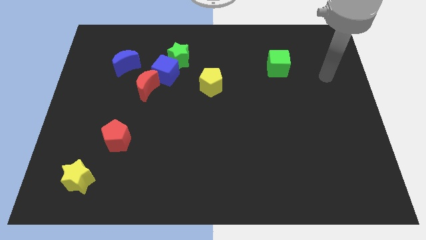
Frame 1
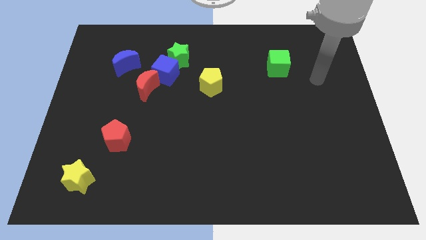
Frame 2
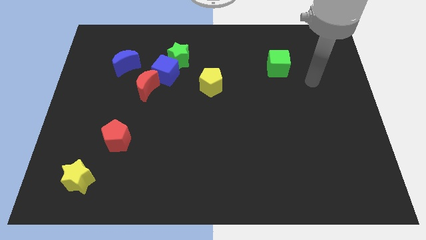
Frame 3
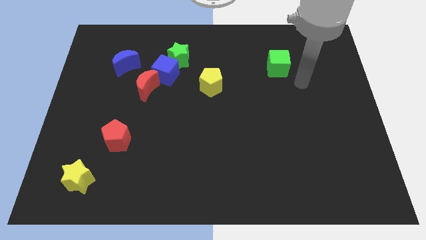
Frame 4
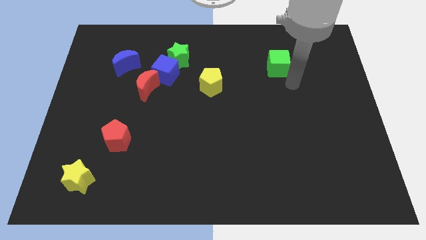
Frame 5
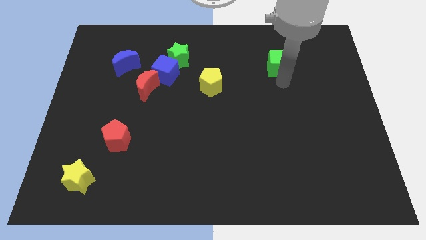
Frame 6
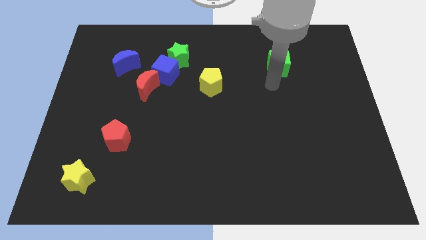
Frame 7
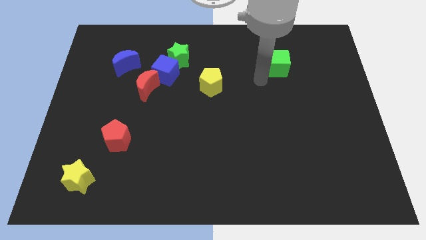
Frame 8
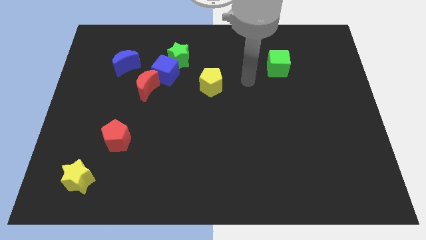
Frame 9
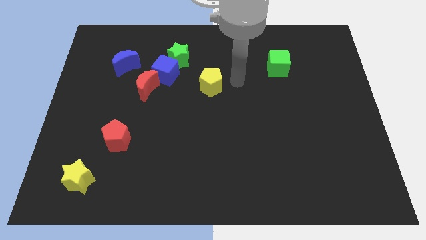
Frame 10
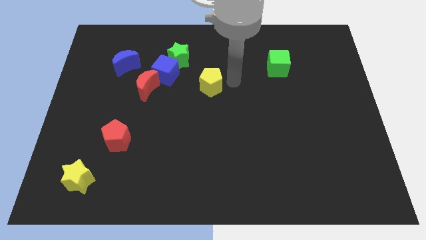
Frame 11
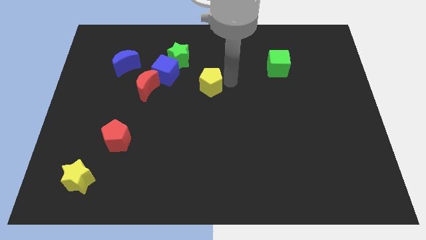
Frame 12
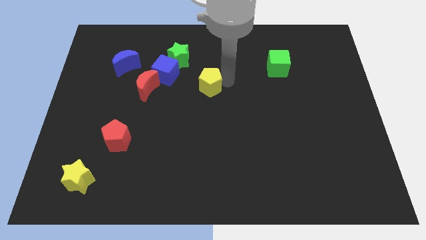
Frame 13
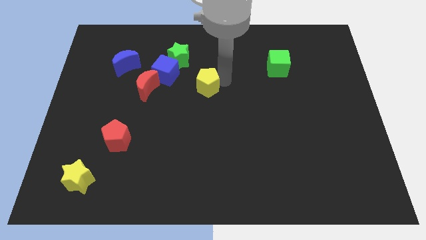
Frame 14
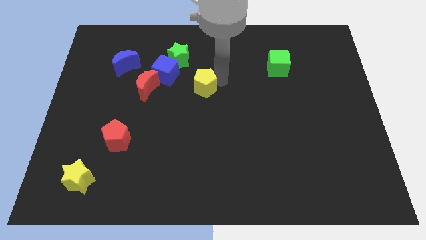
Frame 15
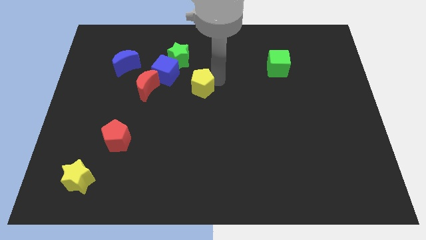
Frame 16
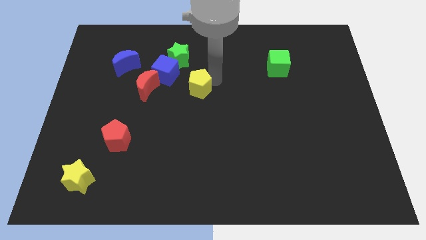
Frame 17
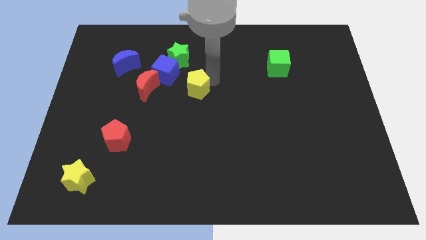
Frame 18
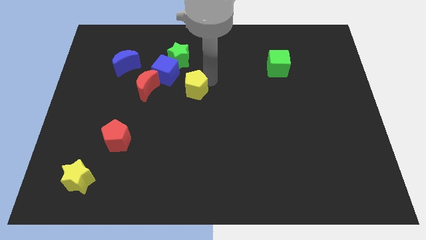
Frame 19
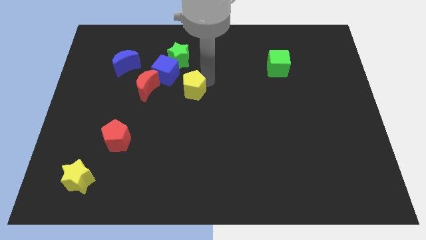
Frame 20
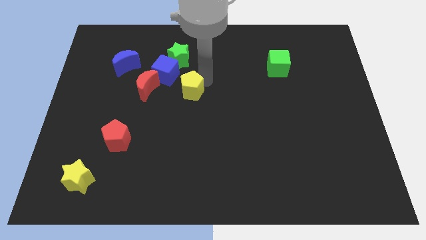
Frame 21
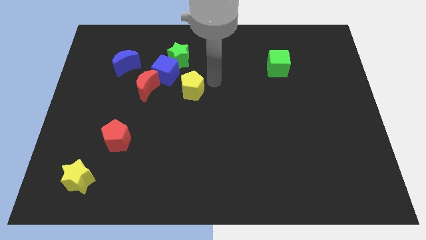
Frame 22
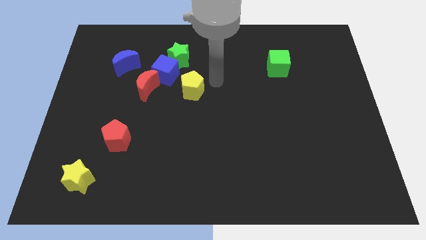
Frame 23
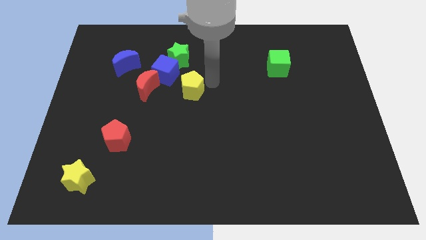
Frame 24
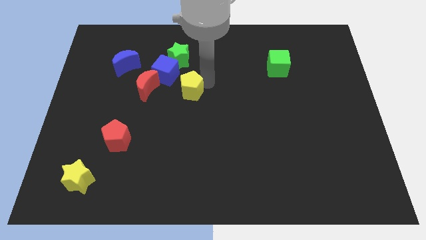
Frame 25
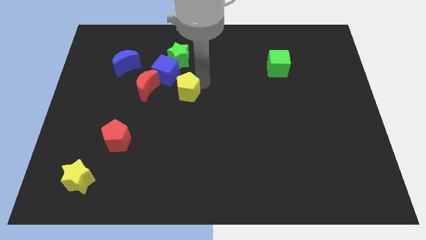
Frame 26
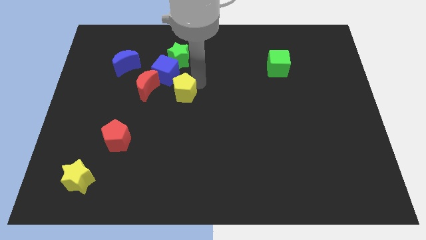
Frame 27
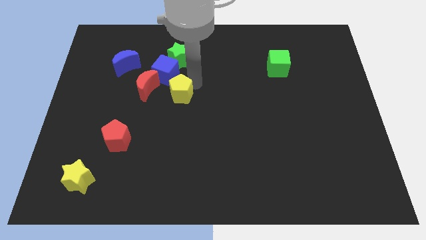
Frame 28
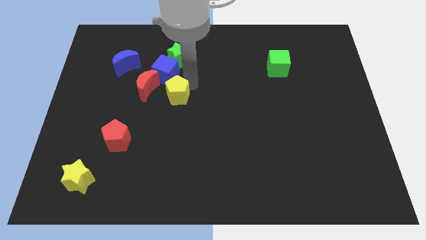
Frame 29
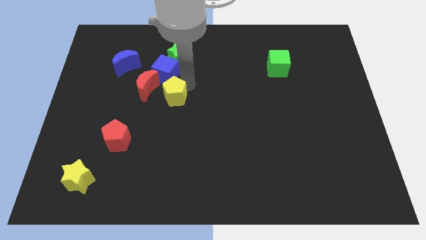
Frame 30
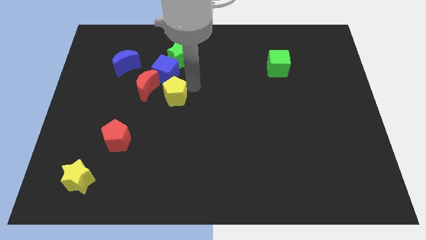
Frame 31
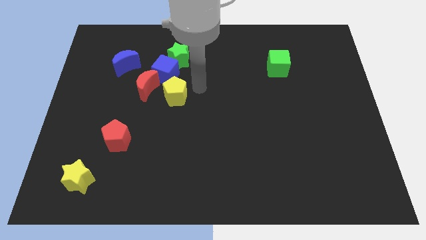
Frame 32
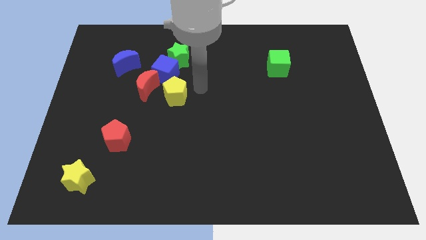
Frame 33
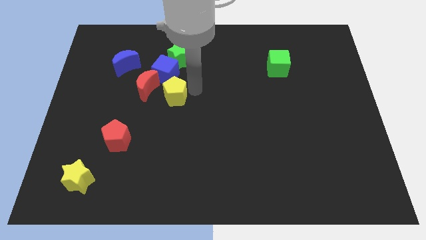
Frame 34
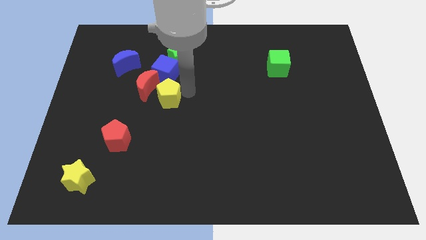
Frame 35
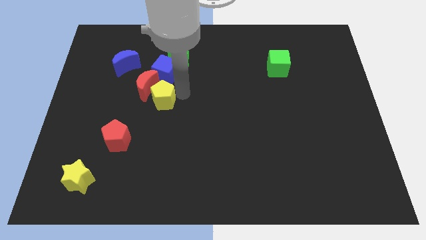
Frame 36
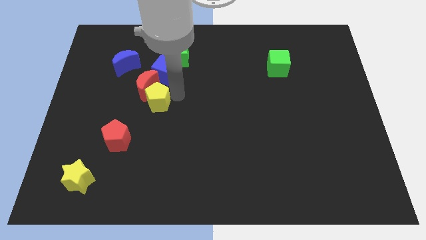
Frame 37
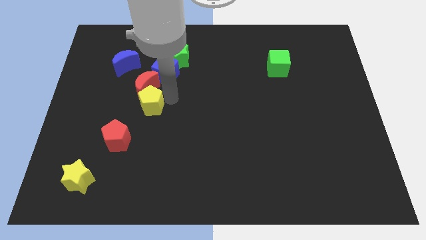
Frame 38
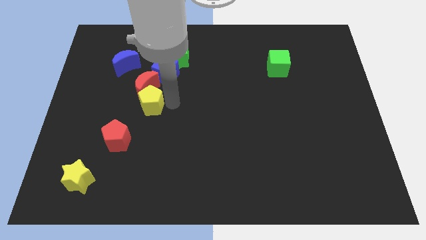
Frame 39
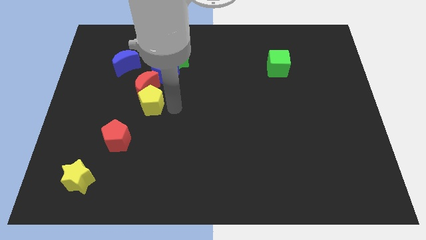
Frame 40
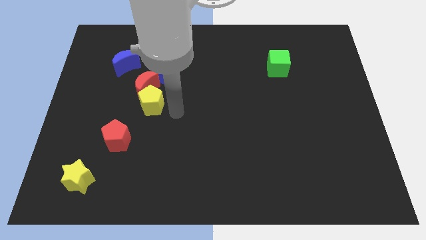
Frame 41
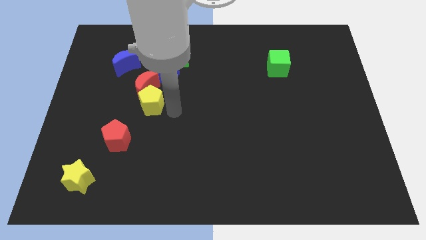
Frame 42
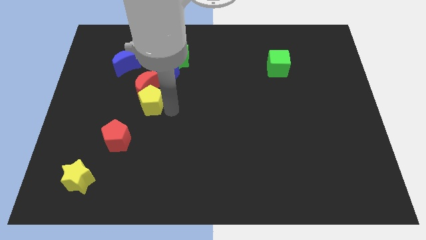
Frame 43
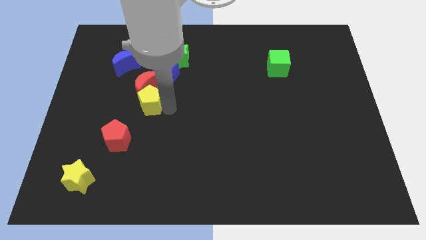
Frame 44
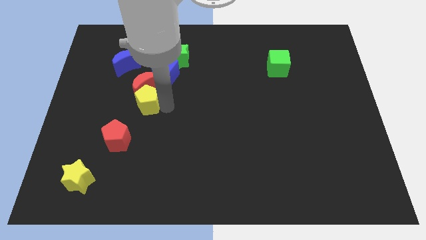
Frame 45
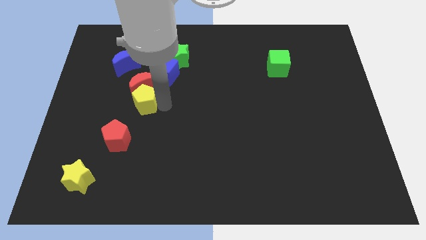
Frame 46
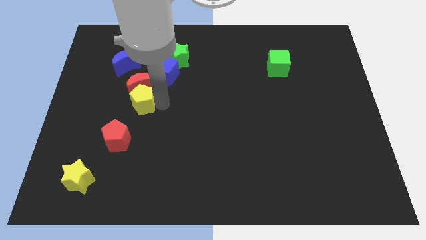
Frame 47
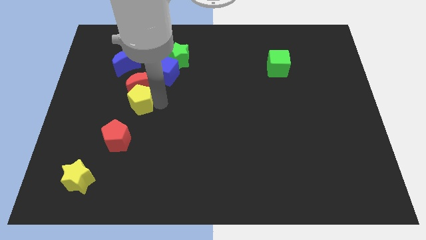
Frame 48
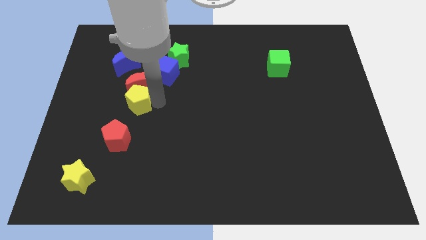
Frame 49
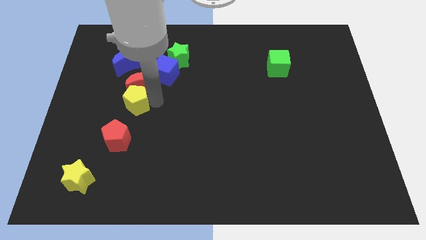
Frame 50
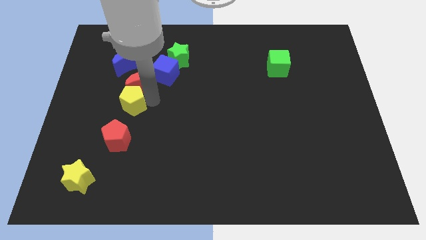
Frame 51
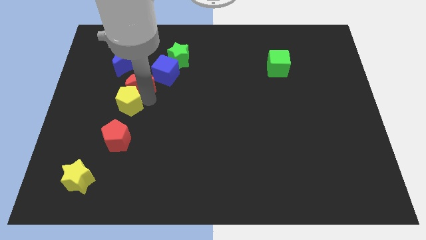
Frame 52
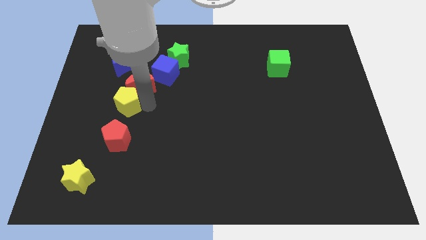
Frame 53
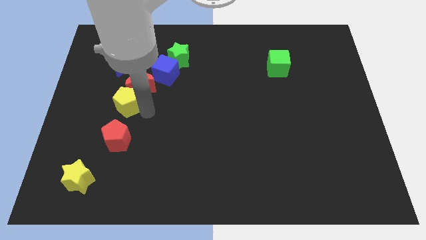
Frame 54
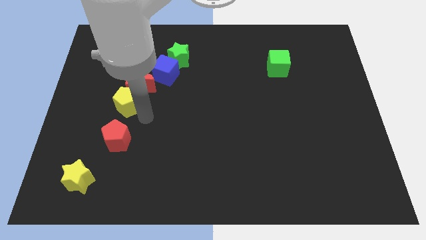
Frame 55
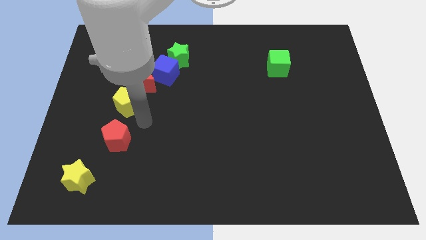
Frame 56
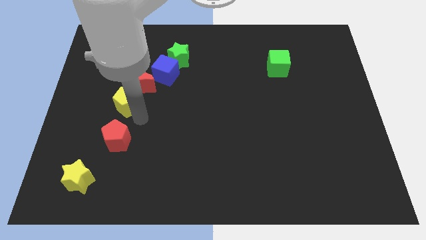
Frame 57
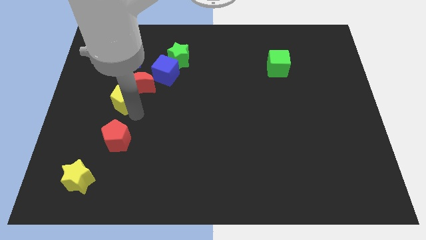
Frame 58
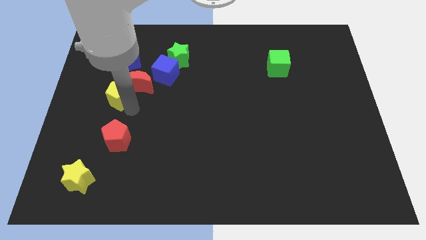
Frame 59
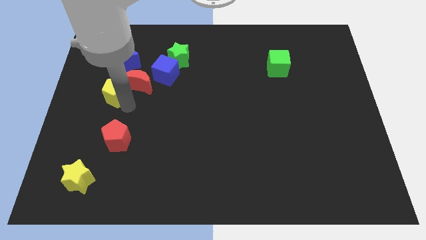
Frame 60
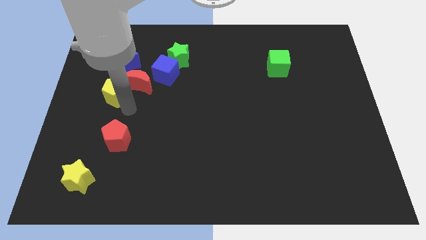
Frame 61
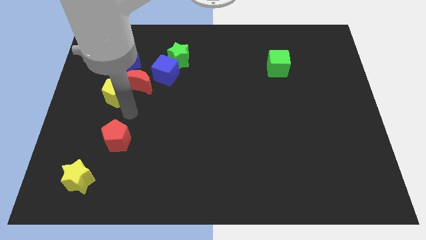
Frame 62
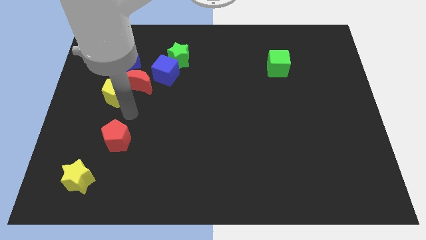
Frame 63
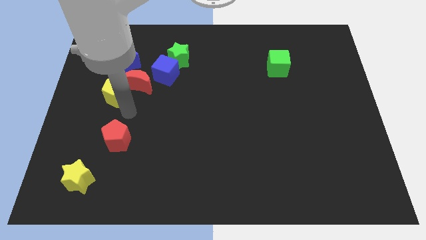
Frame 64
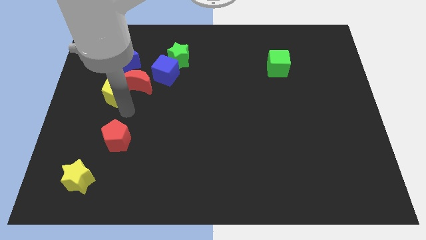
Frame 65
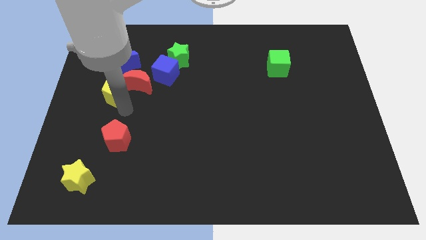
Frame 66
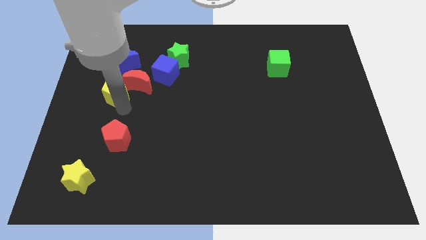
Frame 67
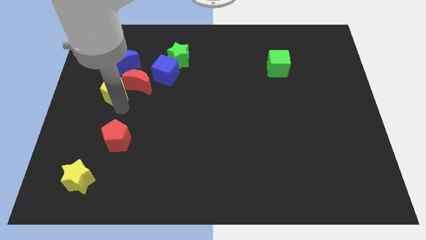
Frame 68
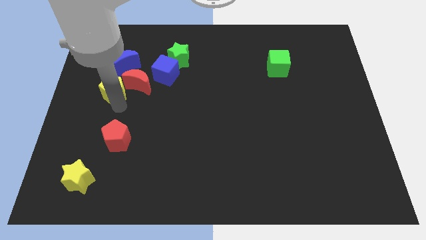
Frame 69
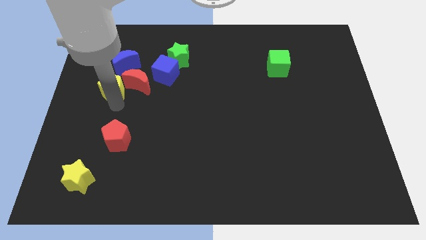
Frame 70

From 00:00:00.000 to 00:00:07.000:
slide the yellow pentagon diagonally down and to the left of the blue moon
